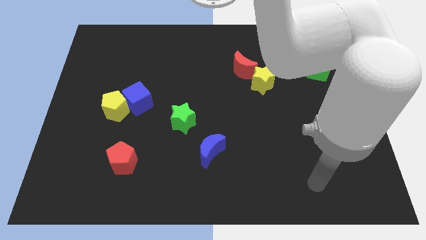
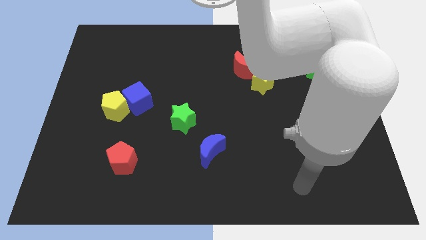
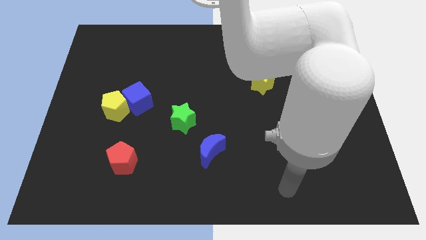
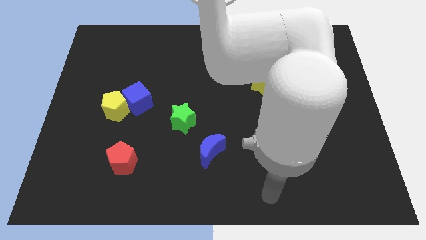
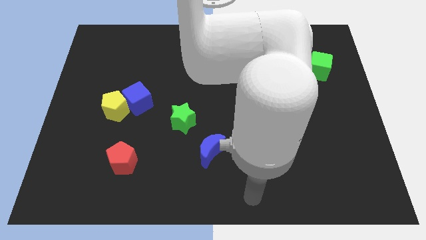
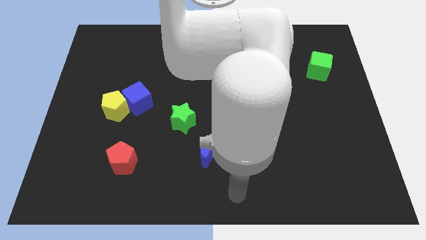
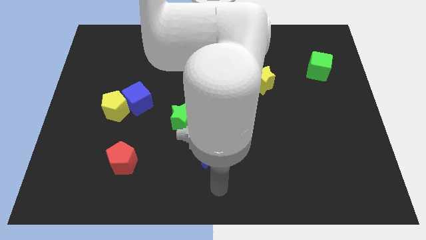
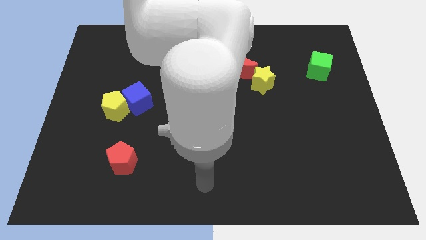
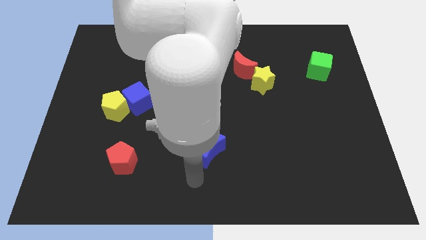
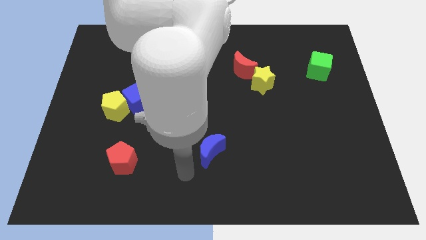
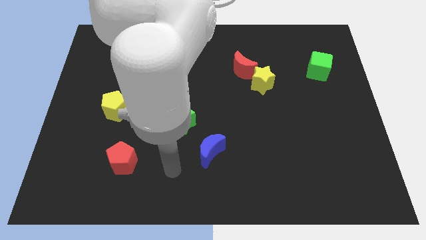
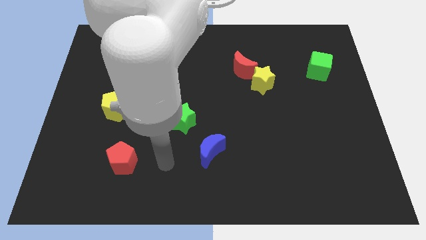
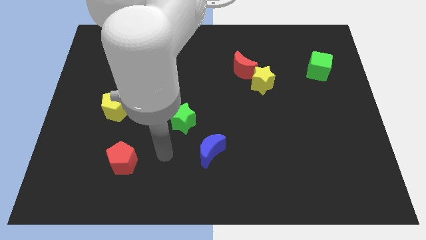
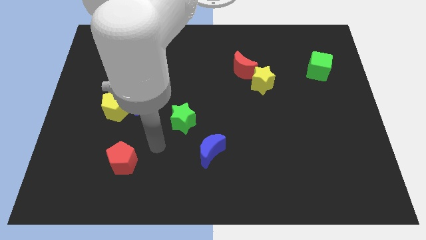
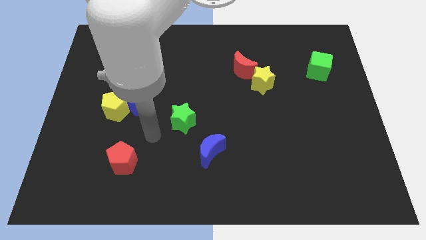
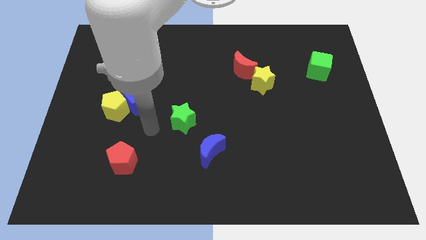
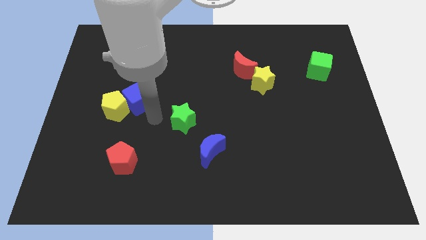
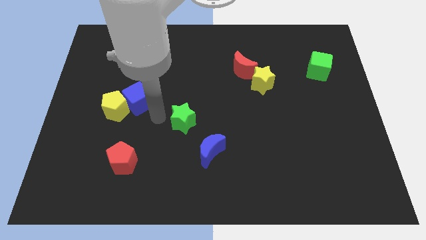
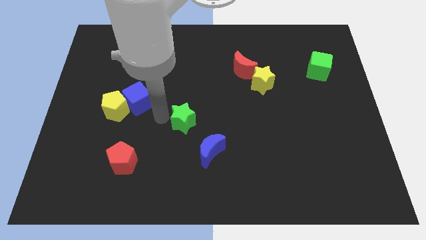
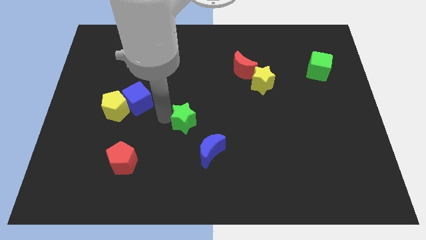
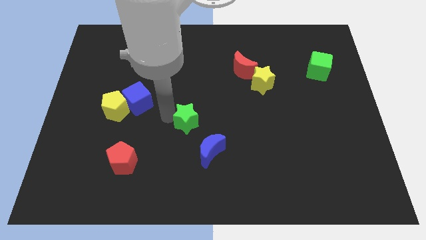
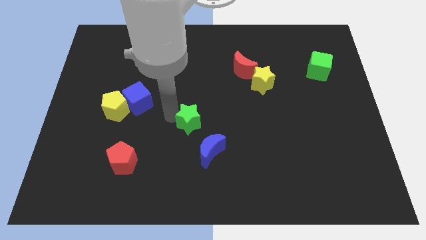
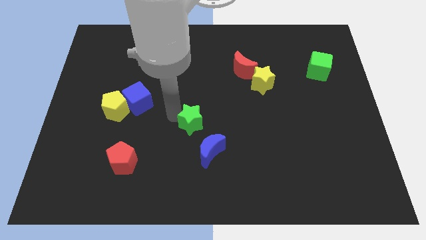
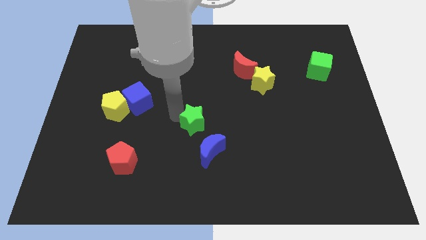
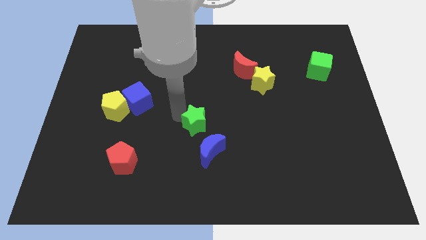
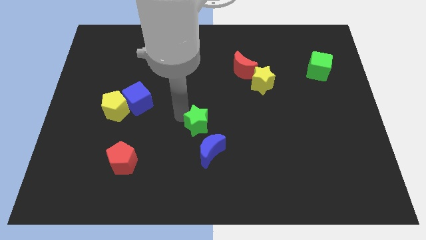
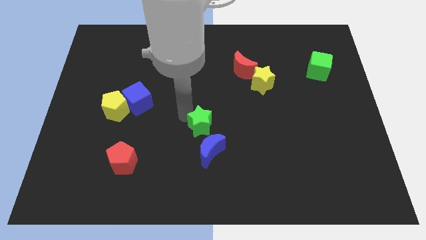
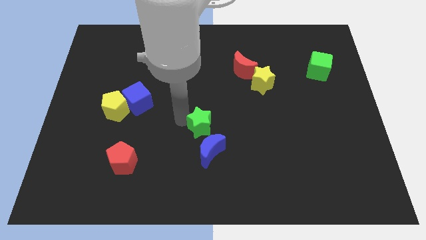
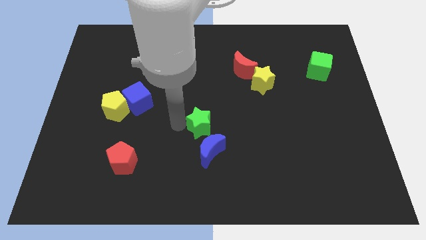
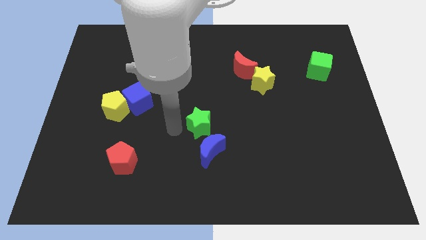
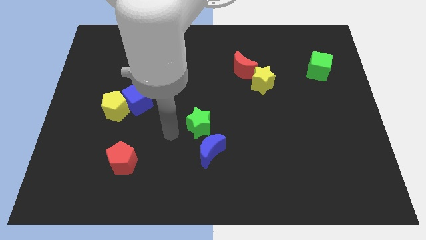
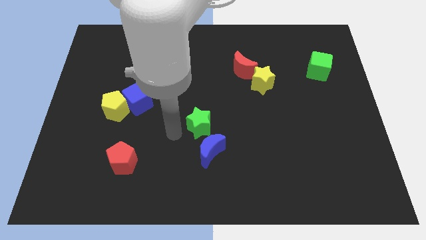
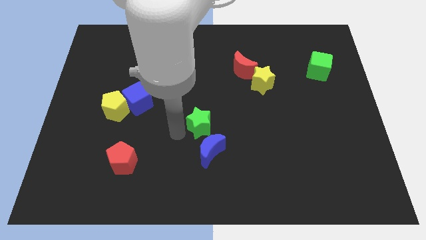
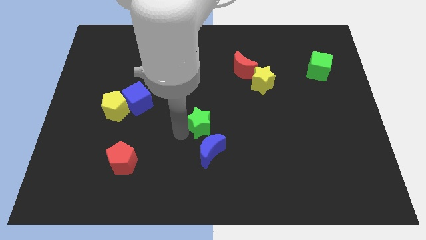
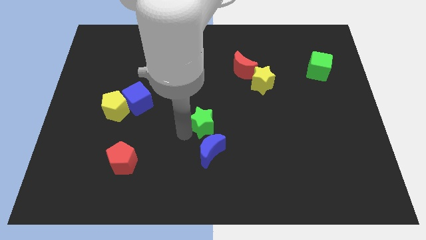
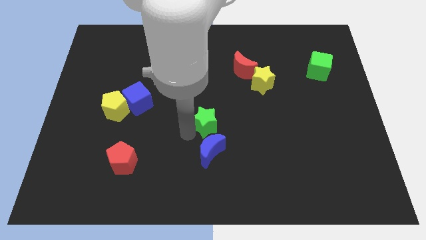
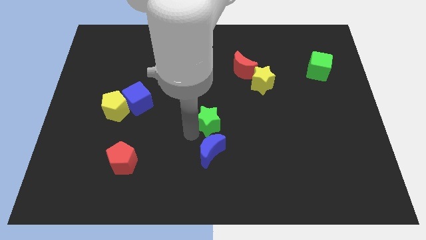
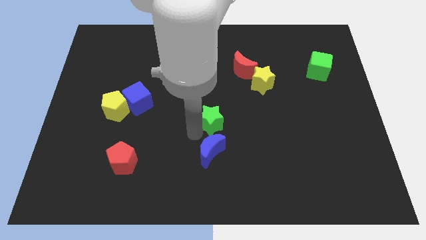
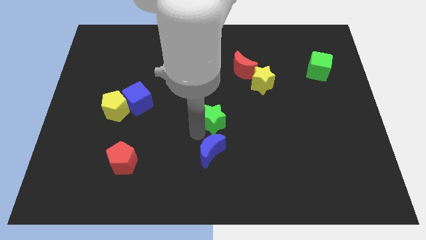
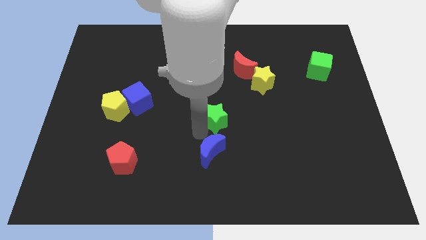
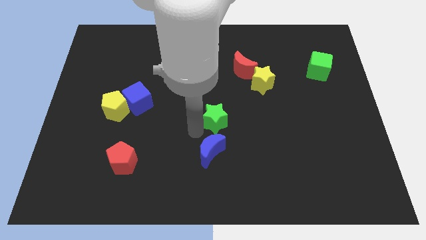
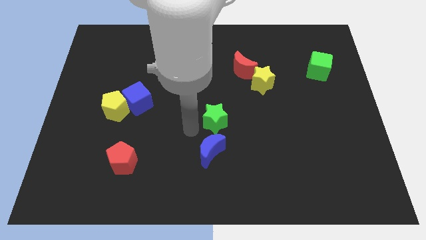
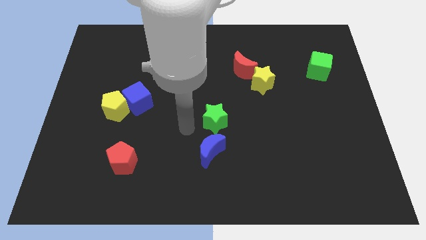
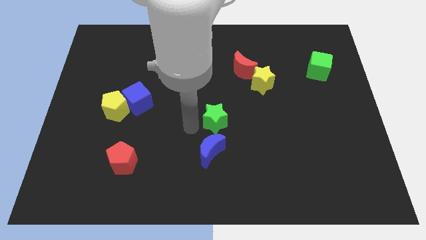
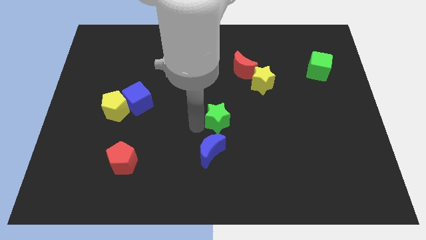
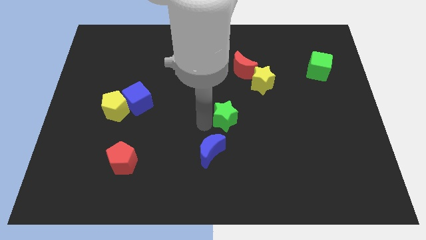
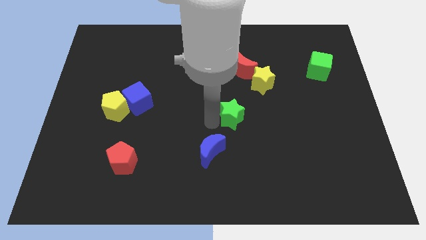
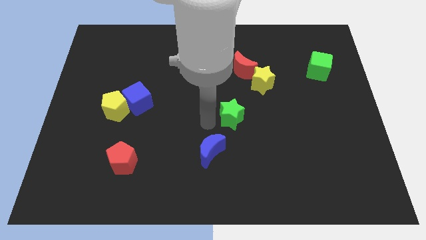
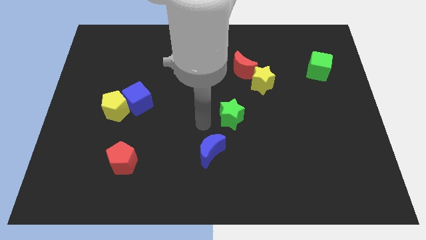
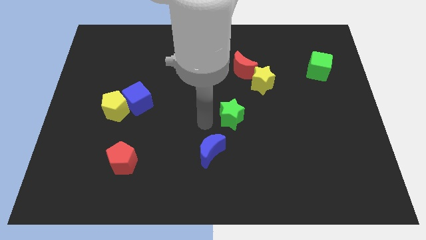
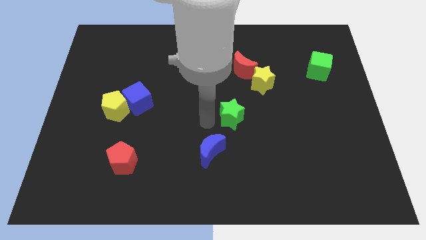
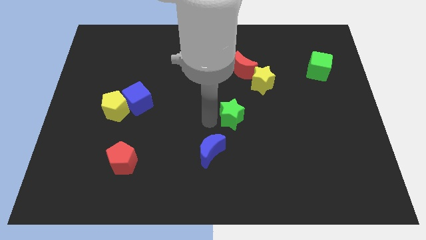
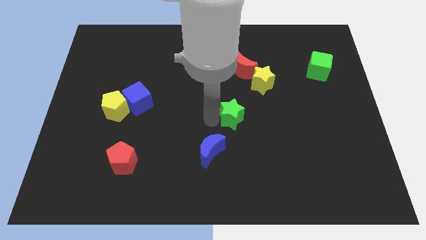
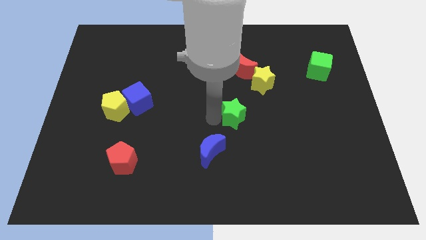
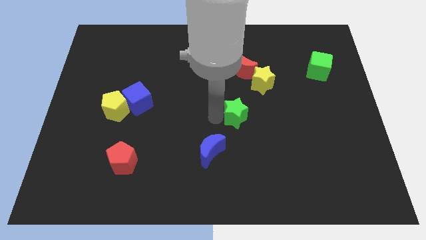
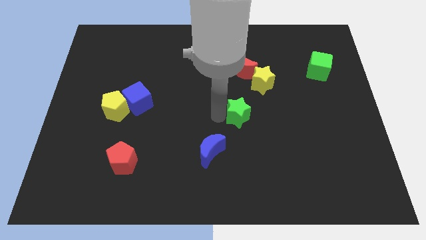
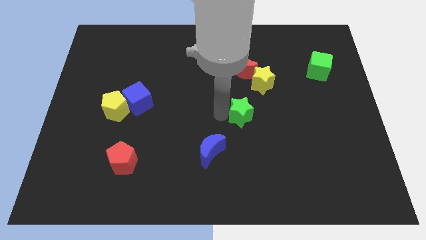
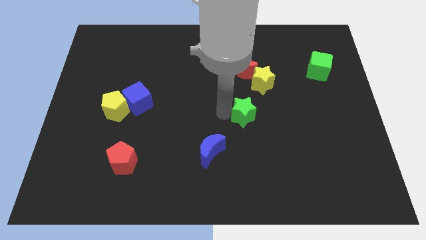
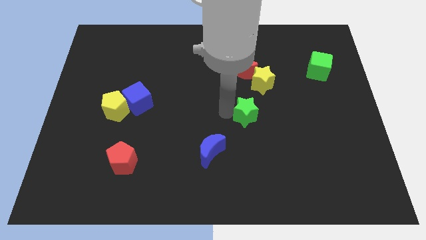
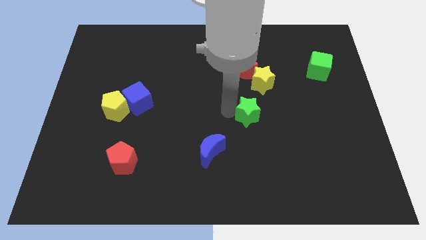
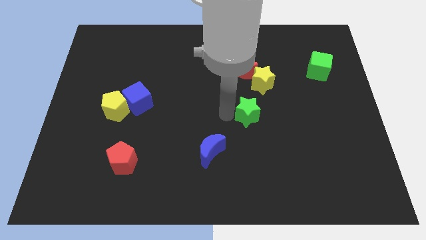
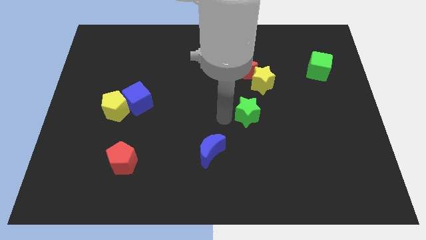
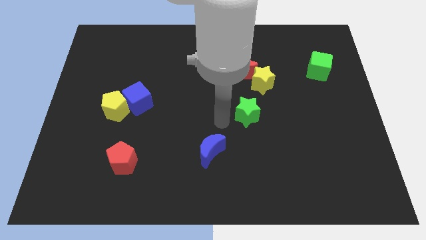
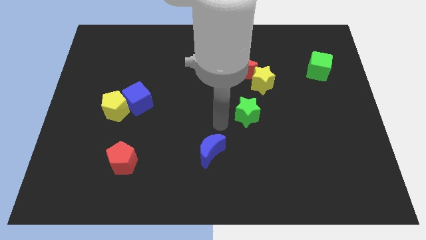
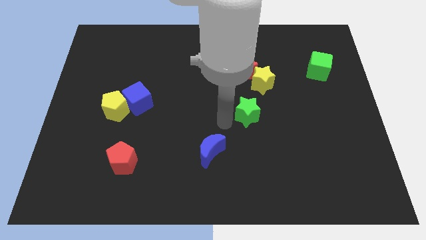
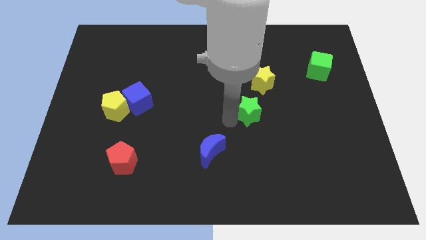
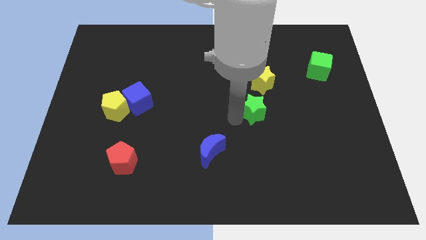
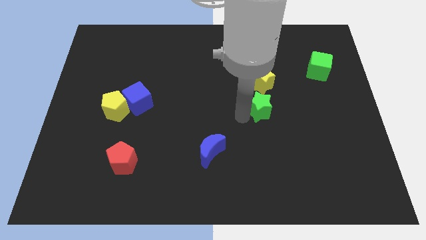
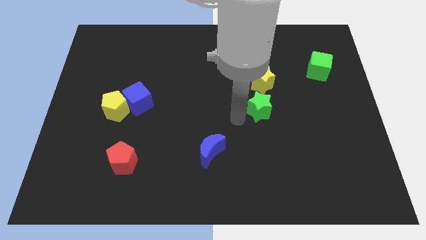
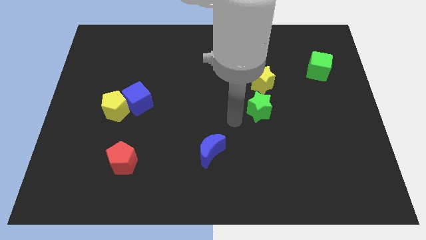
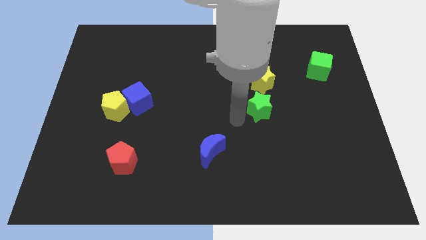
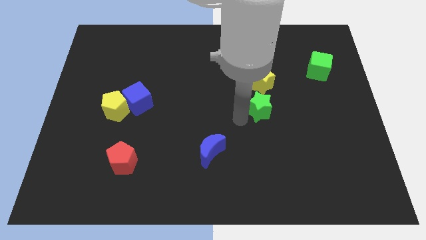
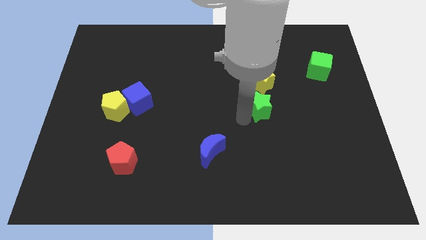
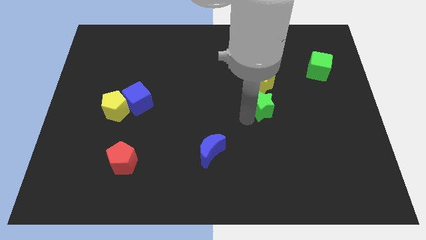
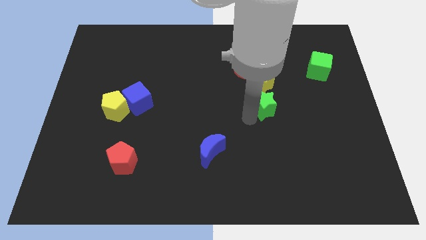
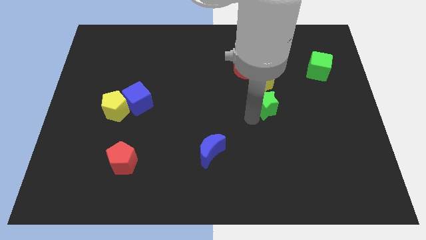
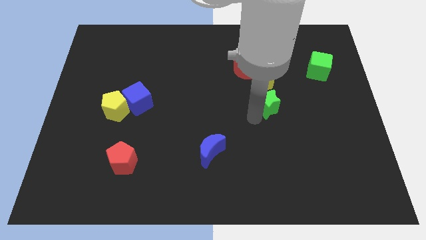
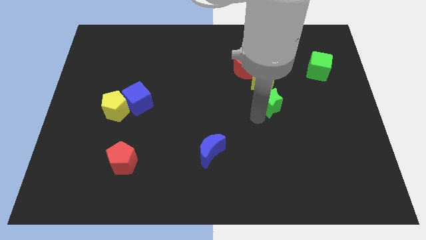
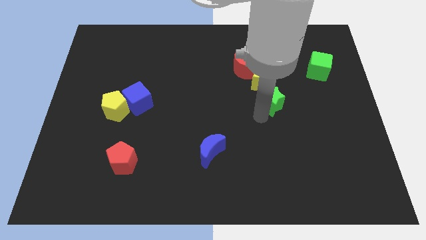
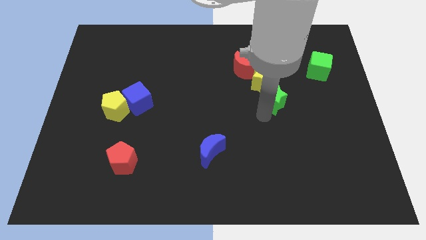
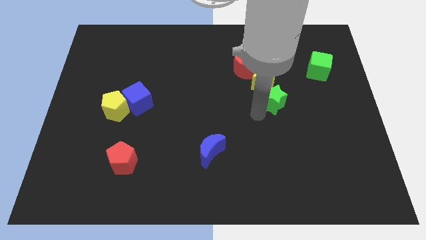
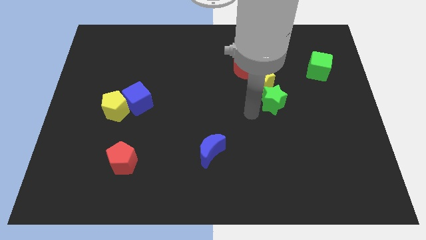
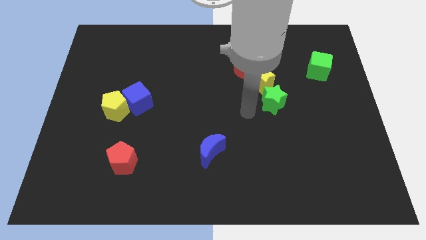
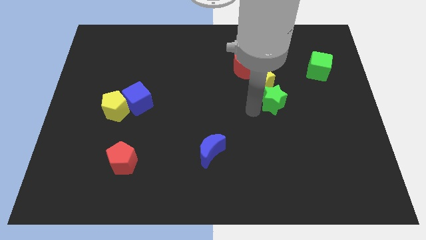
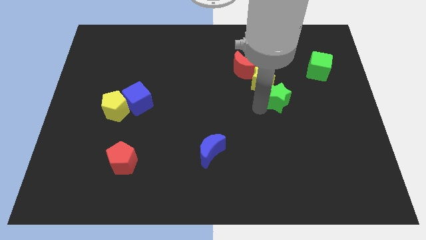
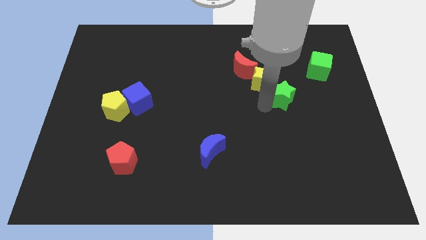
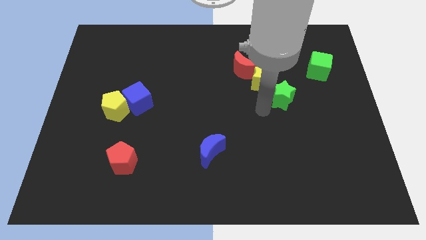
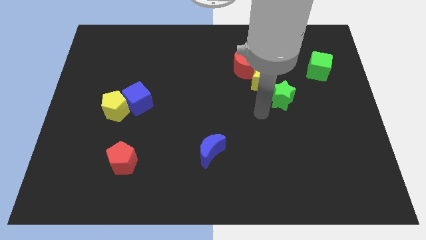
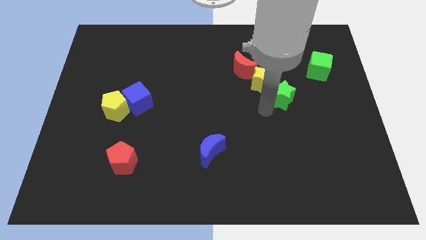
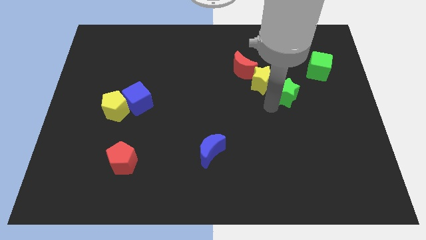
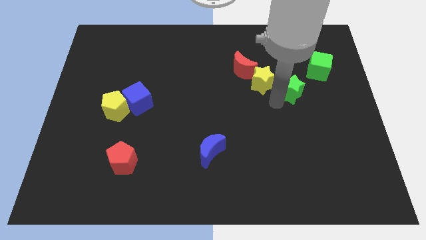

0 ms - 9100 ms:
push the green star to the bottom left of the green cube
